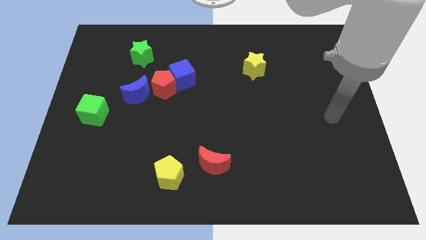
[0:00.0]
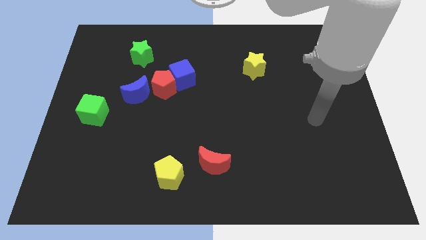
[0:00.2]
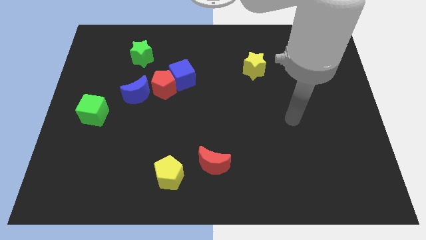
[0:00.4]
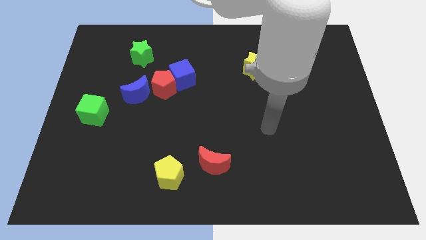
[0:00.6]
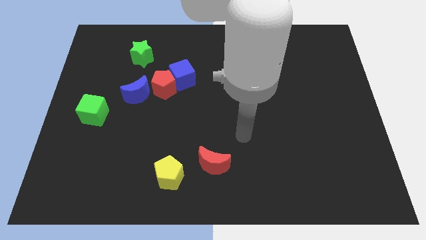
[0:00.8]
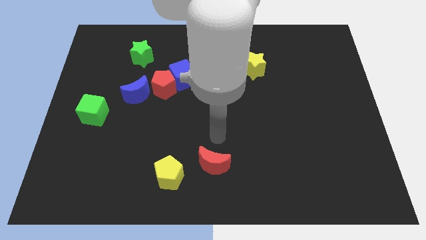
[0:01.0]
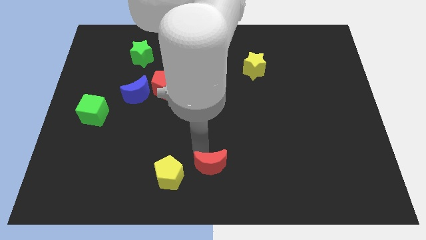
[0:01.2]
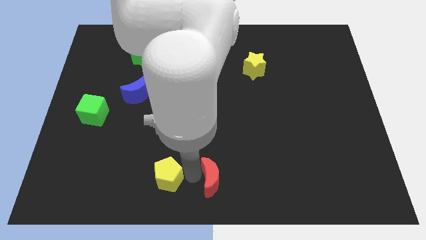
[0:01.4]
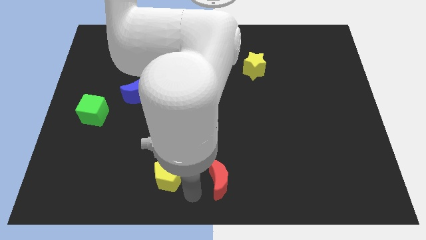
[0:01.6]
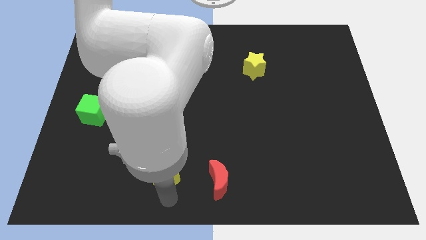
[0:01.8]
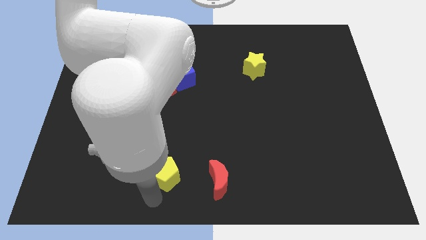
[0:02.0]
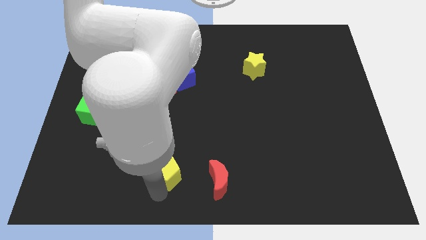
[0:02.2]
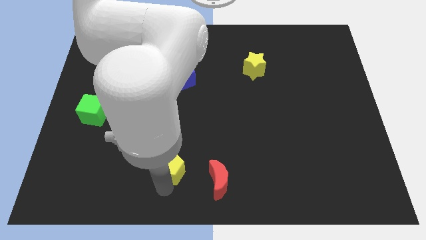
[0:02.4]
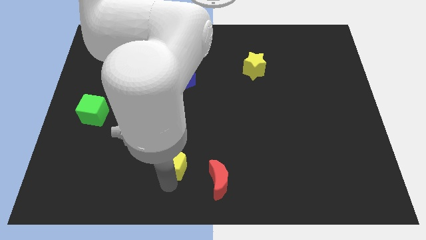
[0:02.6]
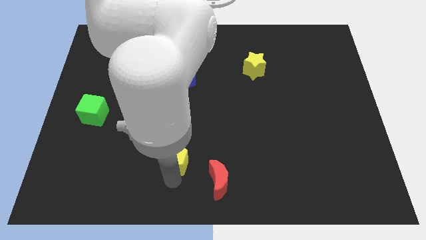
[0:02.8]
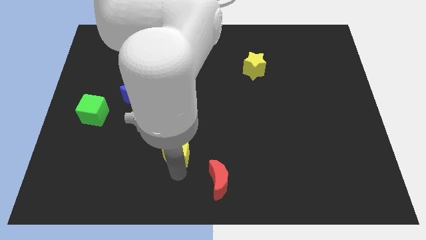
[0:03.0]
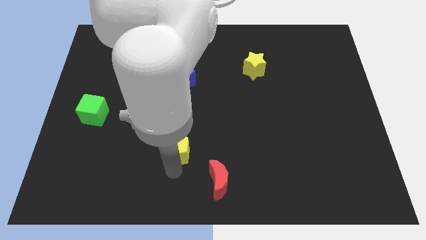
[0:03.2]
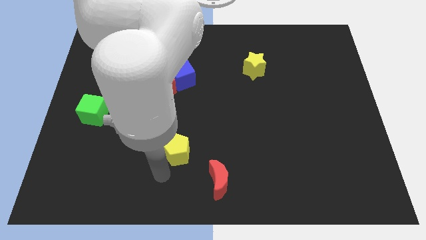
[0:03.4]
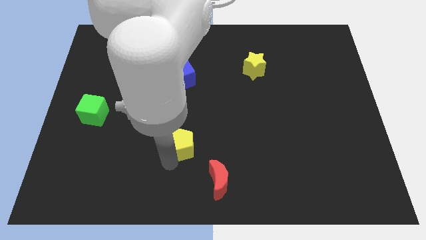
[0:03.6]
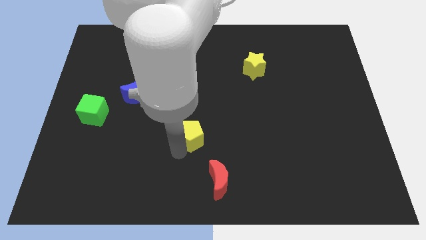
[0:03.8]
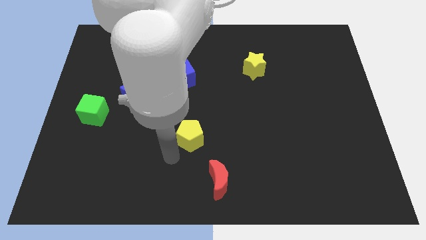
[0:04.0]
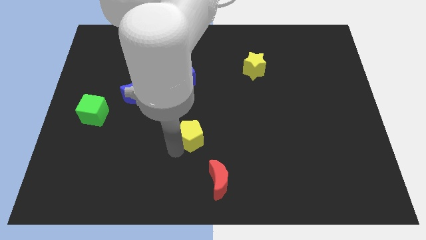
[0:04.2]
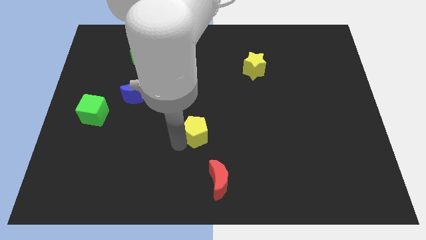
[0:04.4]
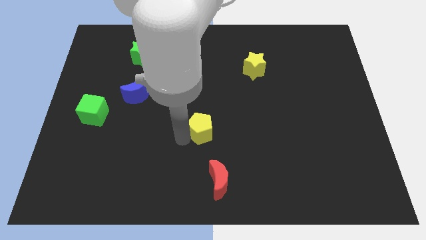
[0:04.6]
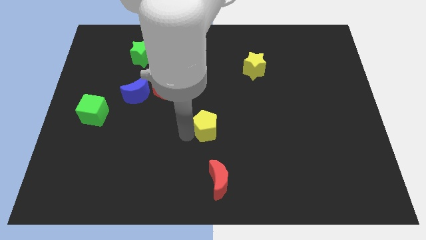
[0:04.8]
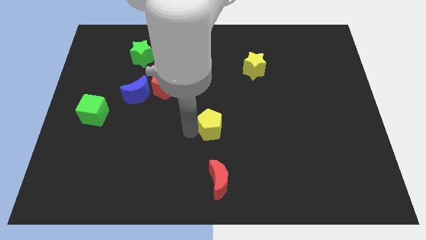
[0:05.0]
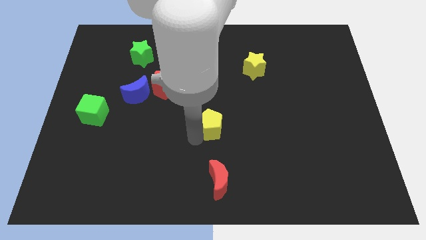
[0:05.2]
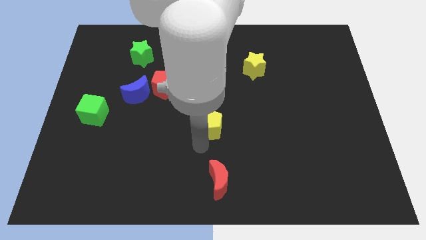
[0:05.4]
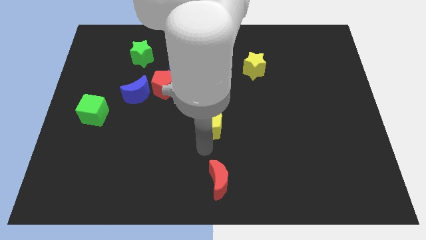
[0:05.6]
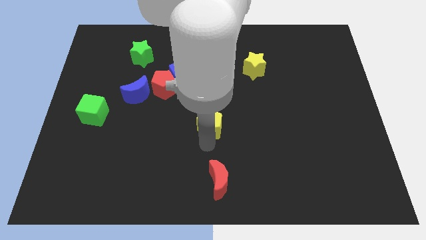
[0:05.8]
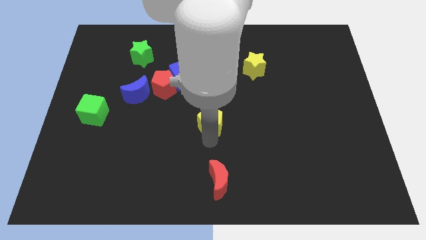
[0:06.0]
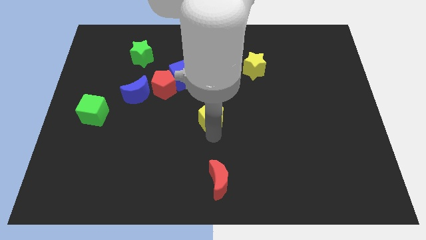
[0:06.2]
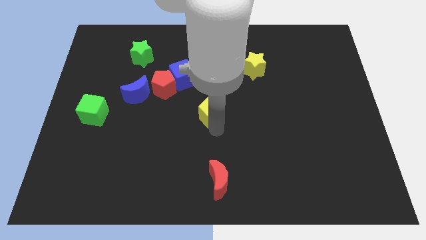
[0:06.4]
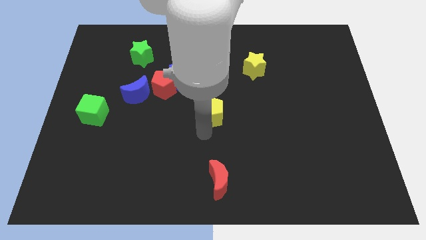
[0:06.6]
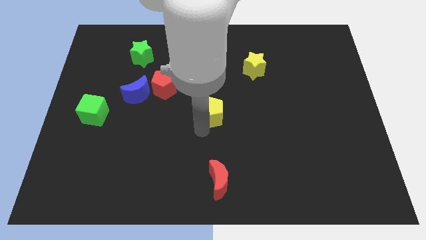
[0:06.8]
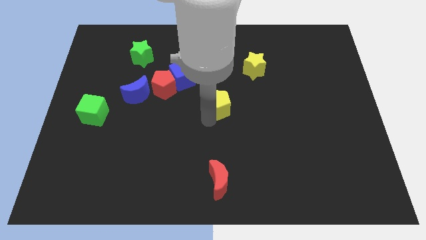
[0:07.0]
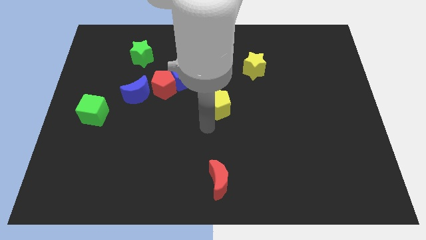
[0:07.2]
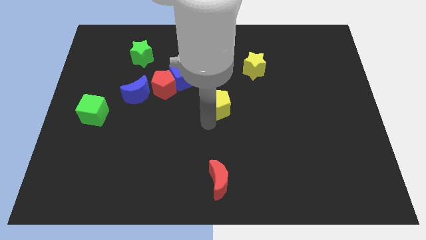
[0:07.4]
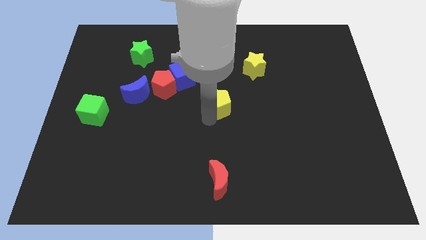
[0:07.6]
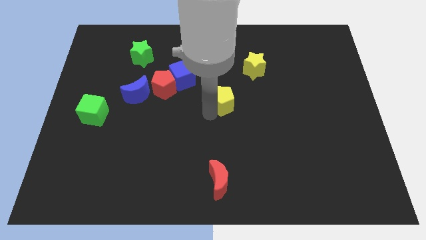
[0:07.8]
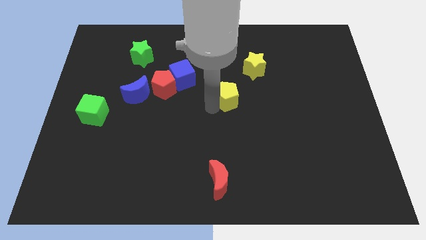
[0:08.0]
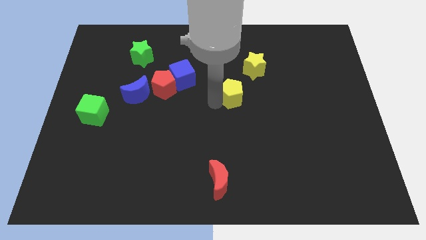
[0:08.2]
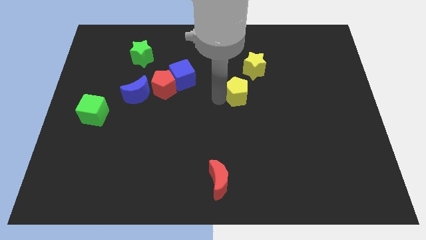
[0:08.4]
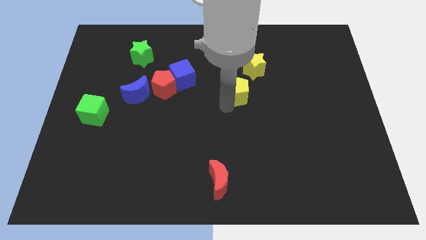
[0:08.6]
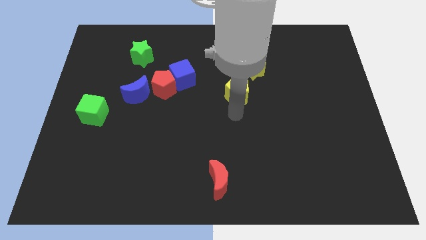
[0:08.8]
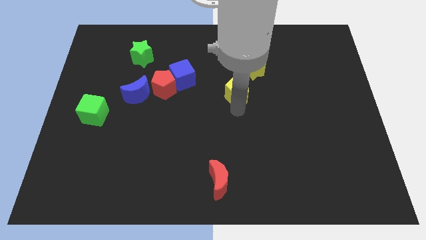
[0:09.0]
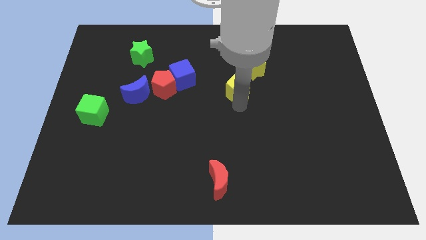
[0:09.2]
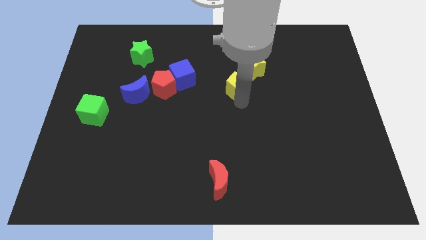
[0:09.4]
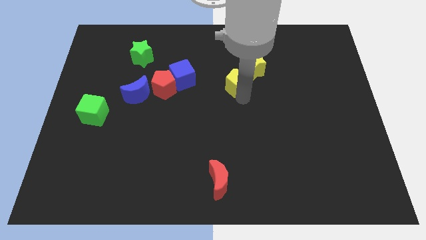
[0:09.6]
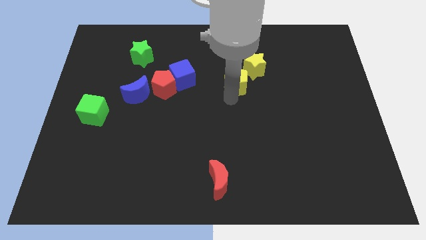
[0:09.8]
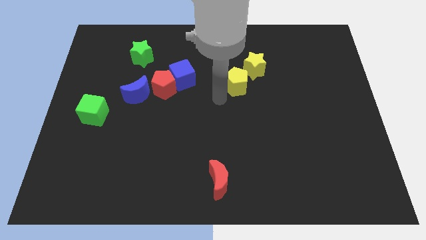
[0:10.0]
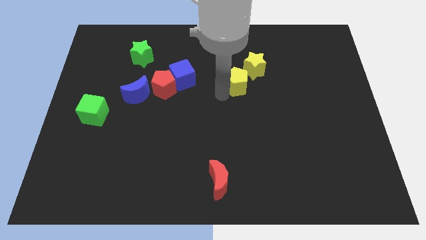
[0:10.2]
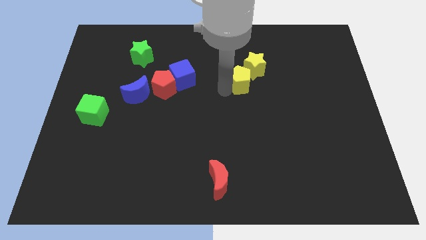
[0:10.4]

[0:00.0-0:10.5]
push the yellow pentagon next to the yellow star

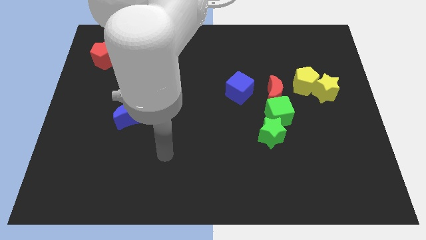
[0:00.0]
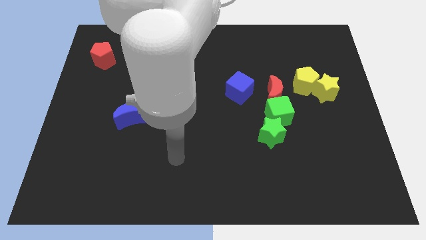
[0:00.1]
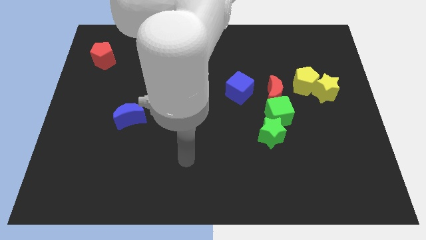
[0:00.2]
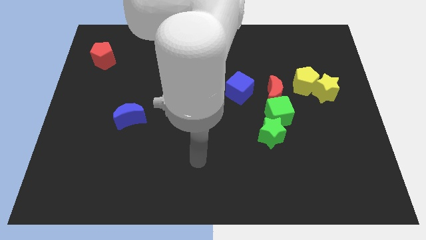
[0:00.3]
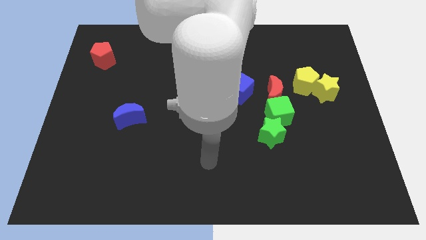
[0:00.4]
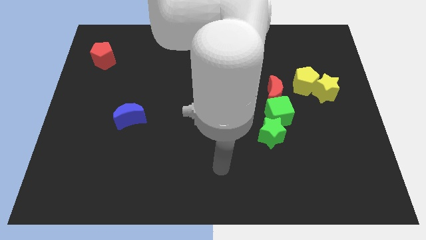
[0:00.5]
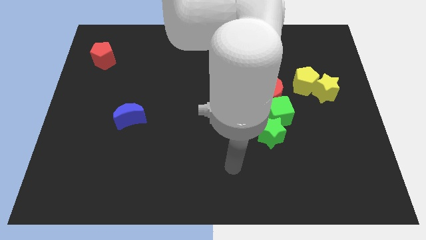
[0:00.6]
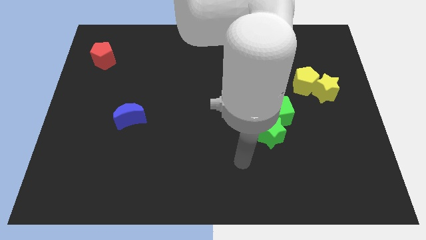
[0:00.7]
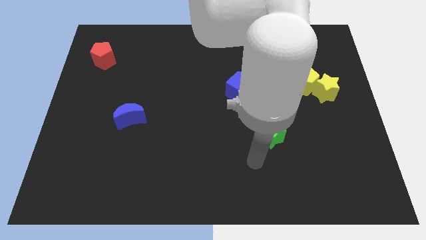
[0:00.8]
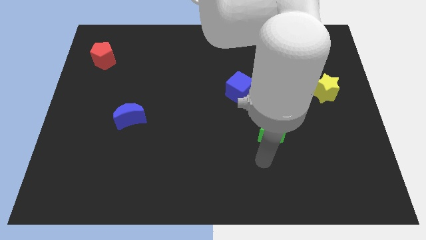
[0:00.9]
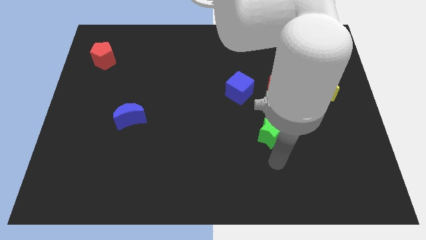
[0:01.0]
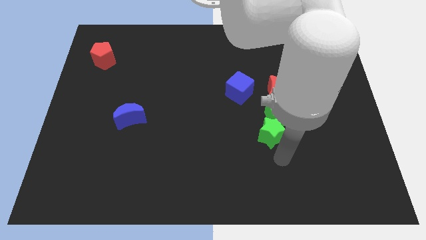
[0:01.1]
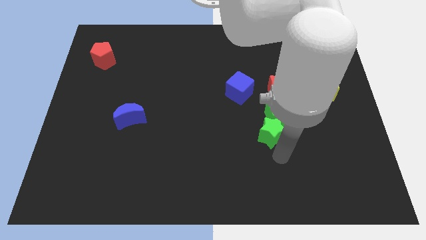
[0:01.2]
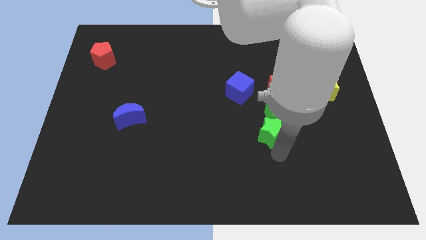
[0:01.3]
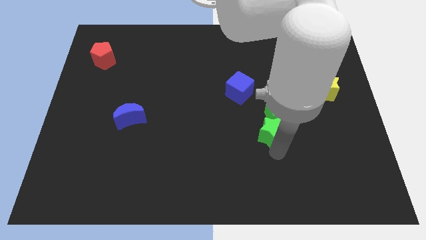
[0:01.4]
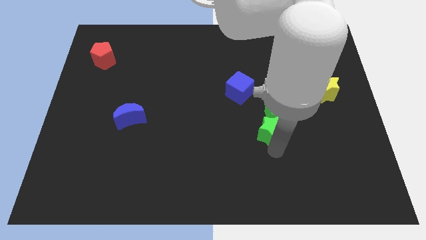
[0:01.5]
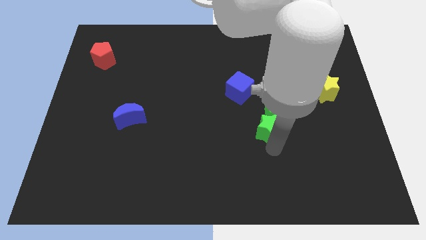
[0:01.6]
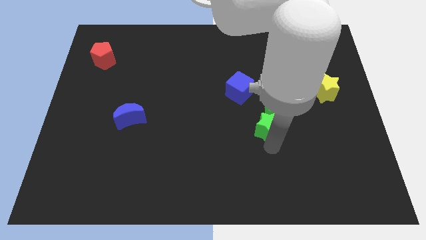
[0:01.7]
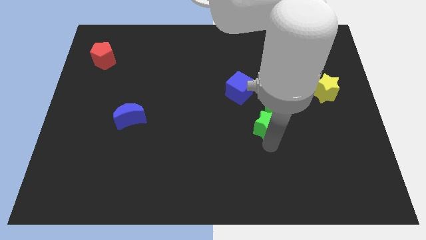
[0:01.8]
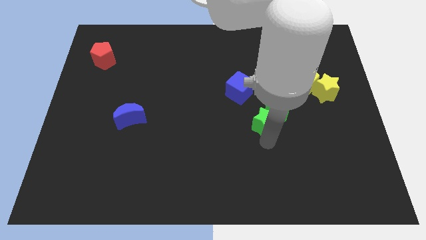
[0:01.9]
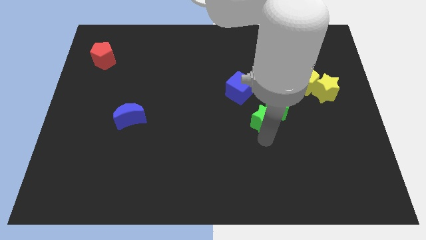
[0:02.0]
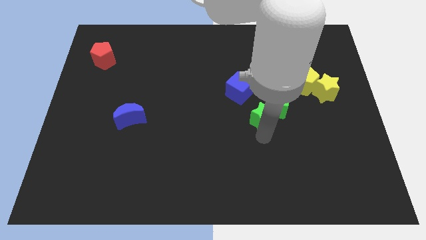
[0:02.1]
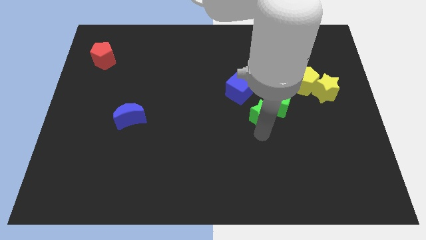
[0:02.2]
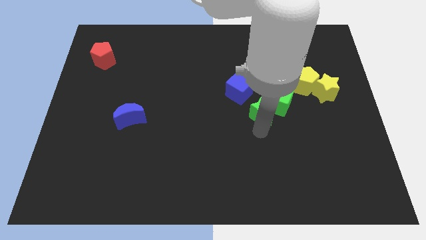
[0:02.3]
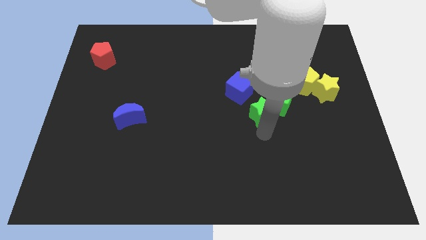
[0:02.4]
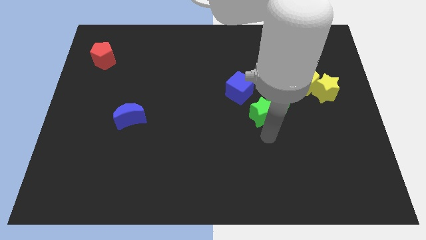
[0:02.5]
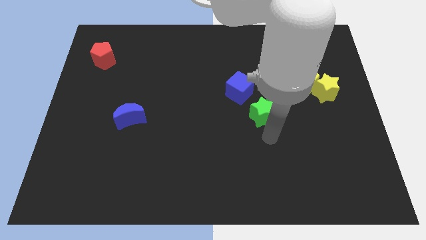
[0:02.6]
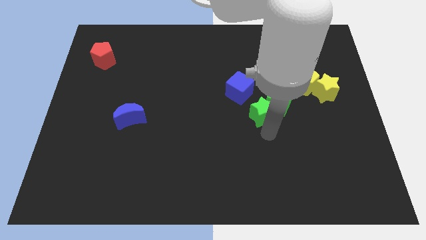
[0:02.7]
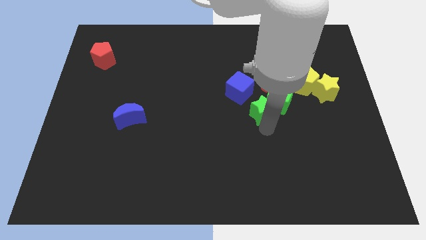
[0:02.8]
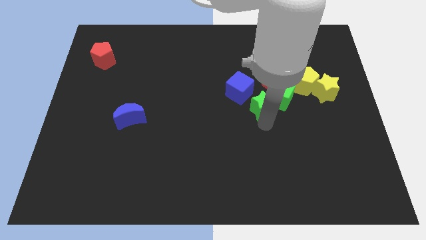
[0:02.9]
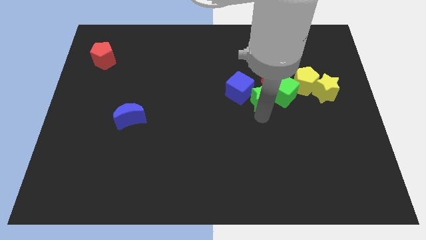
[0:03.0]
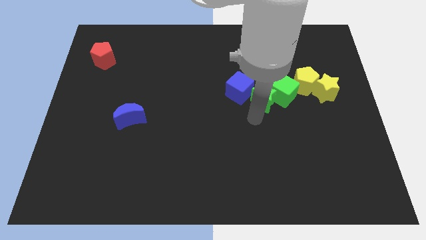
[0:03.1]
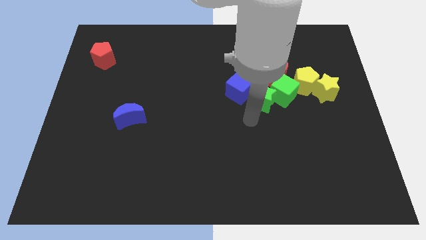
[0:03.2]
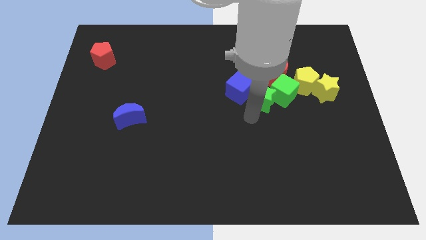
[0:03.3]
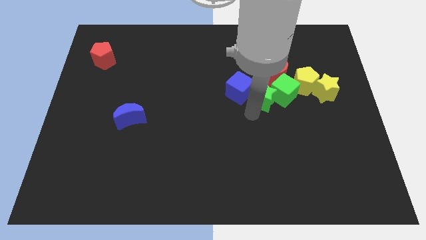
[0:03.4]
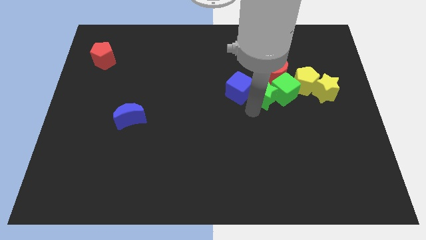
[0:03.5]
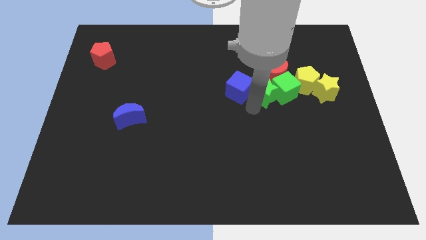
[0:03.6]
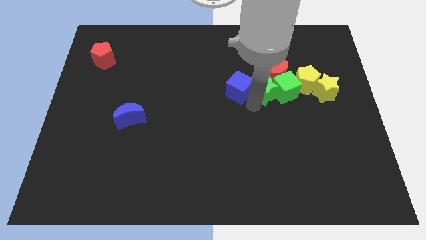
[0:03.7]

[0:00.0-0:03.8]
slide the green star close to the red moon
